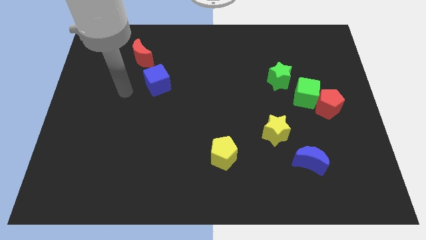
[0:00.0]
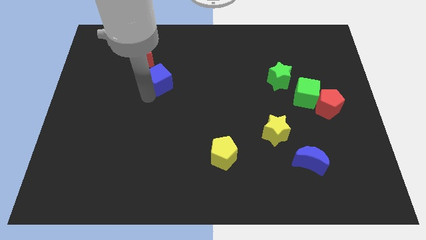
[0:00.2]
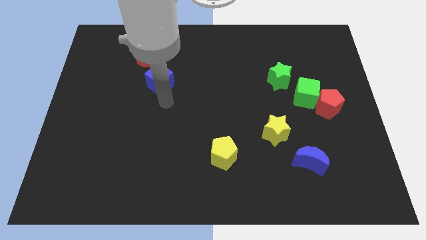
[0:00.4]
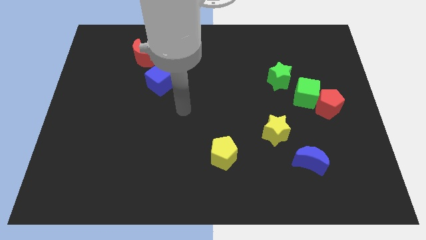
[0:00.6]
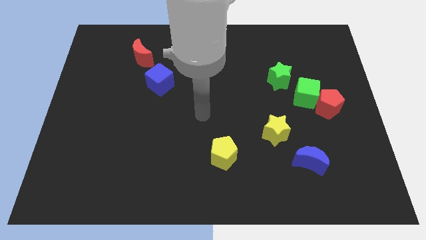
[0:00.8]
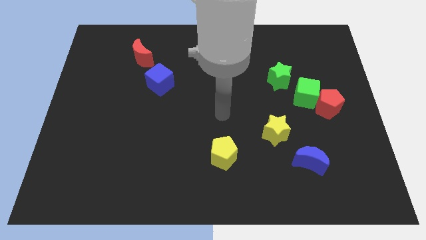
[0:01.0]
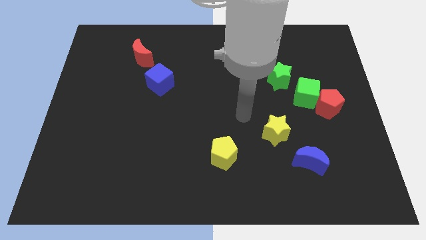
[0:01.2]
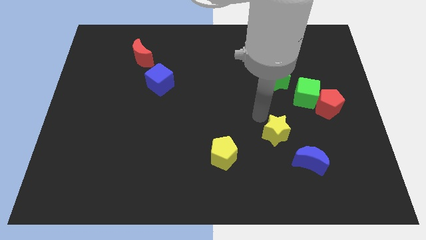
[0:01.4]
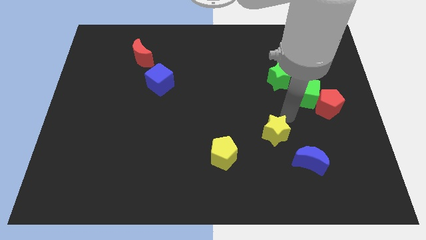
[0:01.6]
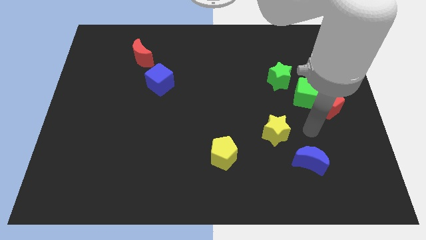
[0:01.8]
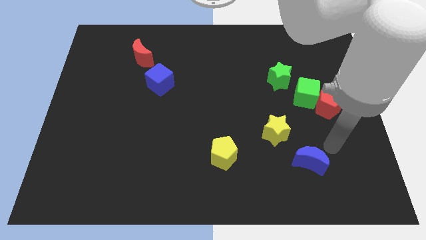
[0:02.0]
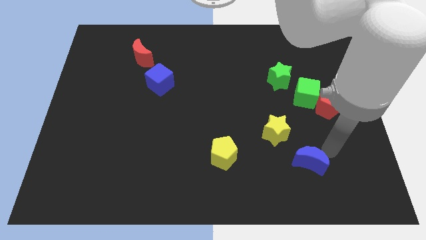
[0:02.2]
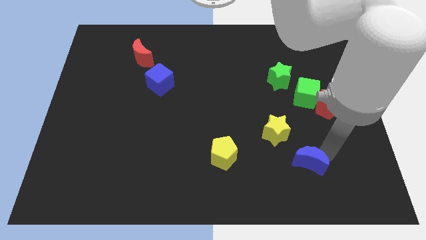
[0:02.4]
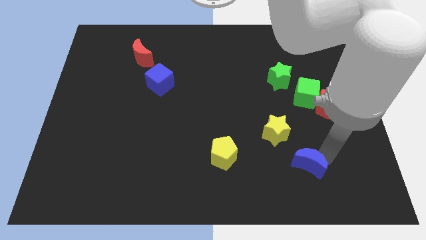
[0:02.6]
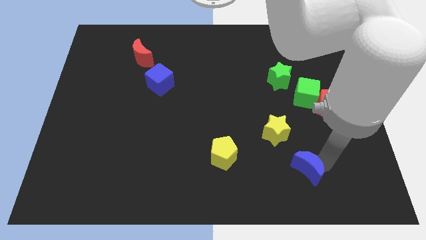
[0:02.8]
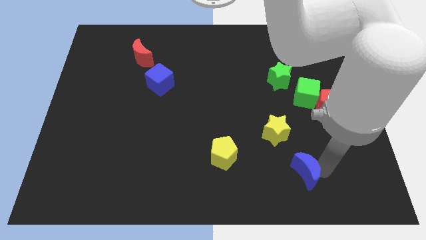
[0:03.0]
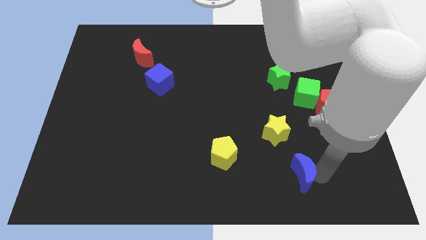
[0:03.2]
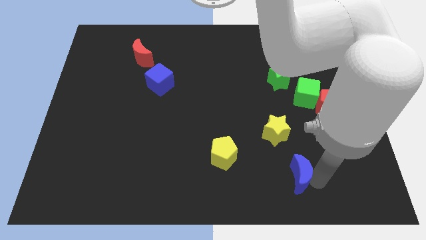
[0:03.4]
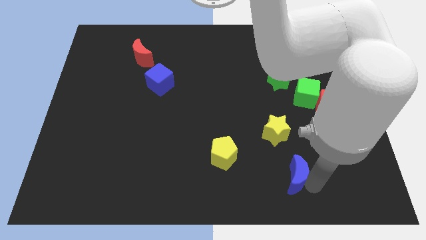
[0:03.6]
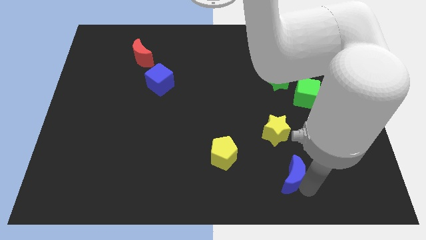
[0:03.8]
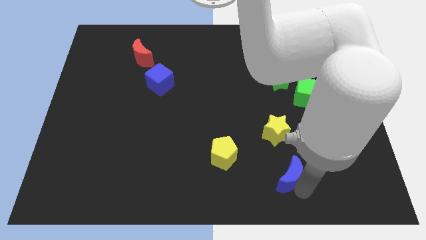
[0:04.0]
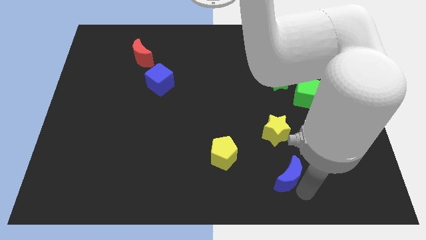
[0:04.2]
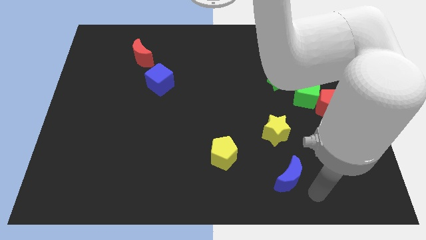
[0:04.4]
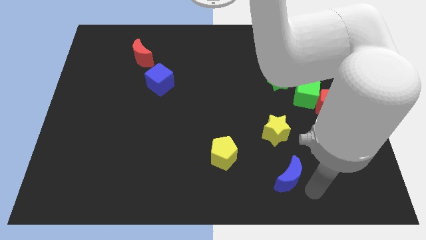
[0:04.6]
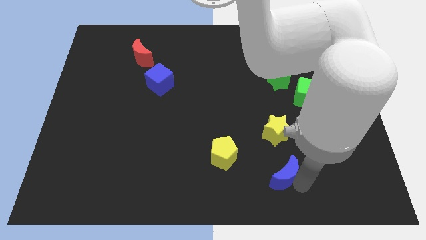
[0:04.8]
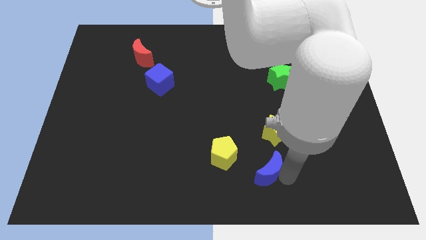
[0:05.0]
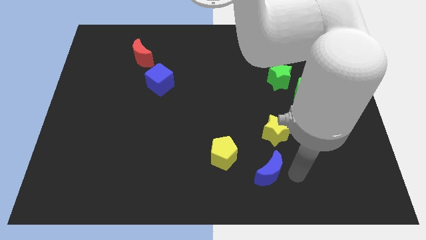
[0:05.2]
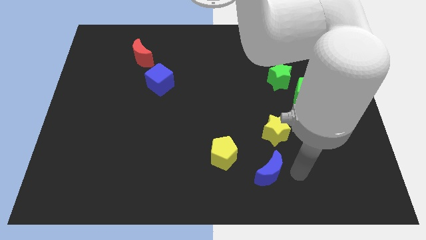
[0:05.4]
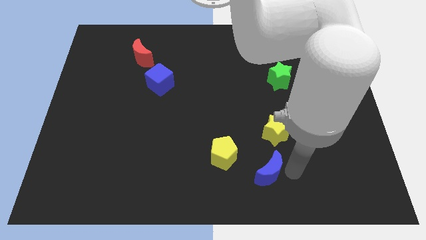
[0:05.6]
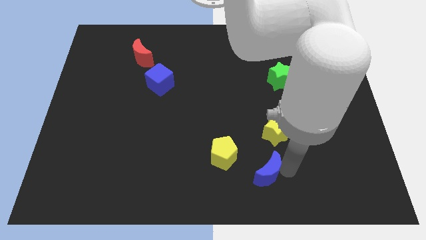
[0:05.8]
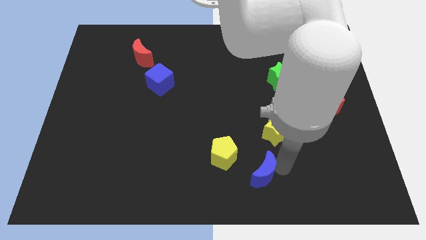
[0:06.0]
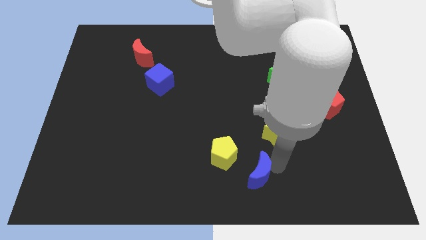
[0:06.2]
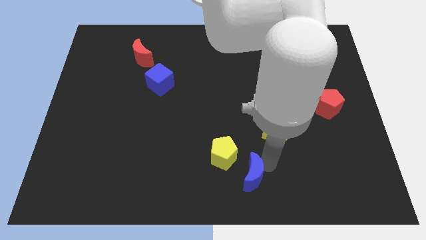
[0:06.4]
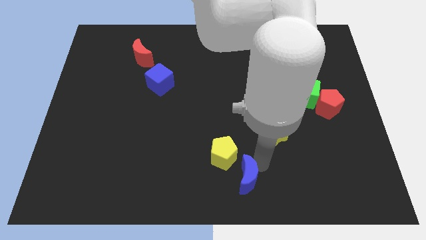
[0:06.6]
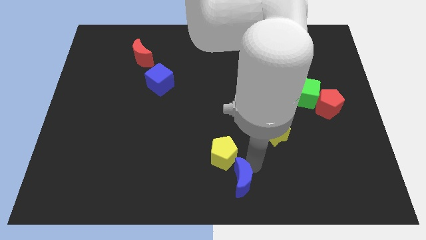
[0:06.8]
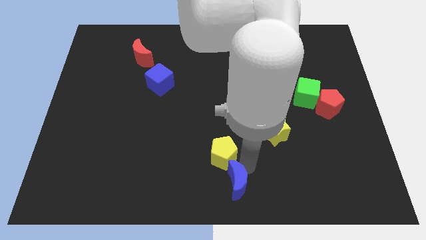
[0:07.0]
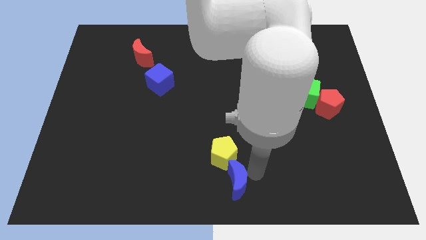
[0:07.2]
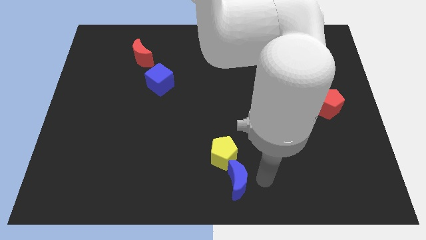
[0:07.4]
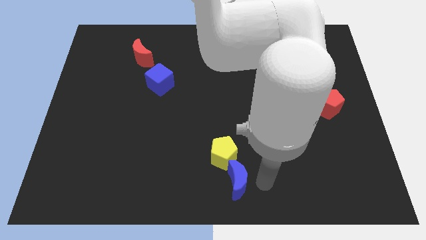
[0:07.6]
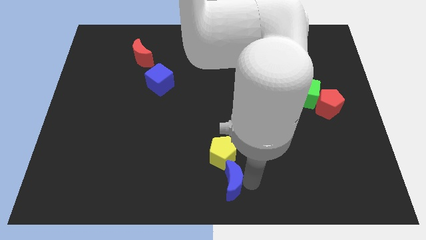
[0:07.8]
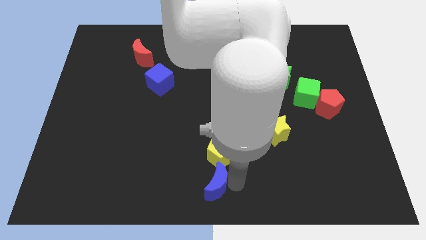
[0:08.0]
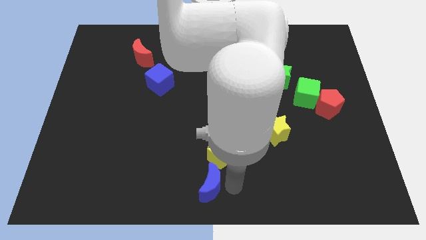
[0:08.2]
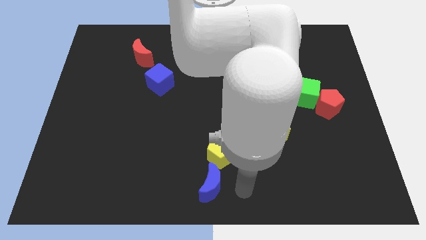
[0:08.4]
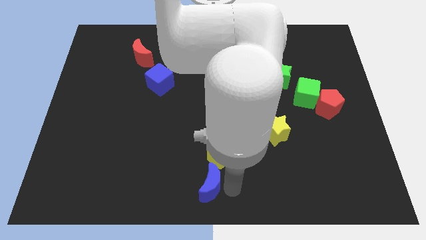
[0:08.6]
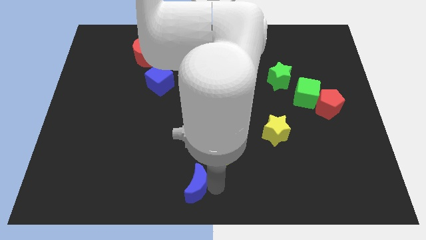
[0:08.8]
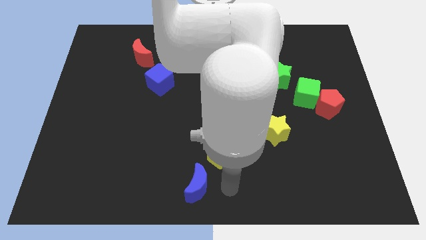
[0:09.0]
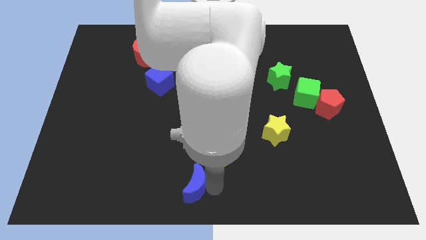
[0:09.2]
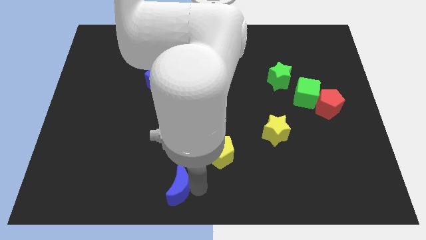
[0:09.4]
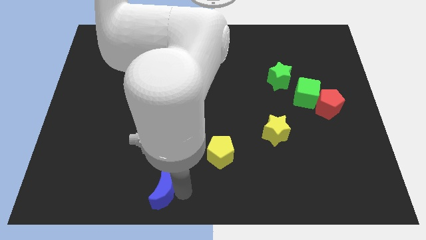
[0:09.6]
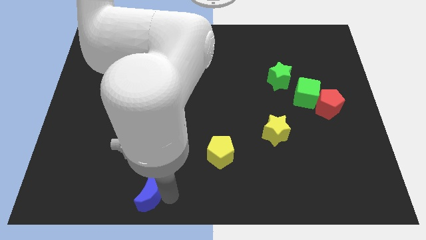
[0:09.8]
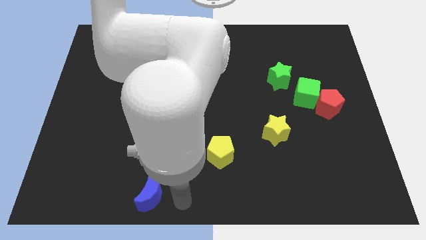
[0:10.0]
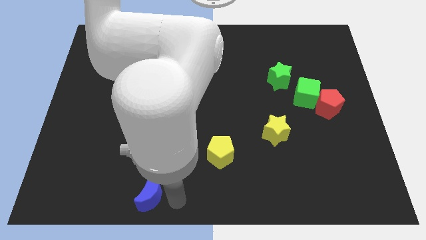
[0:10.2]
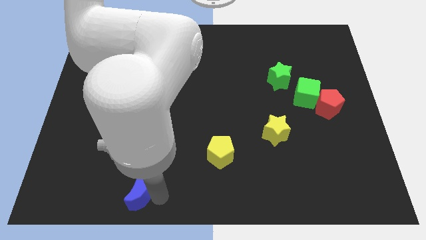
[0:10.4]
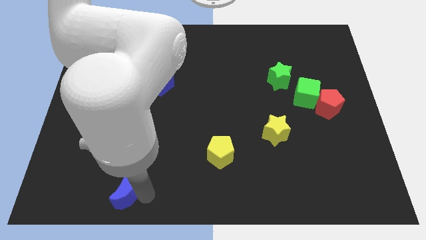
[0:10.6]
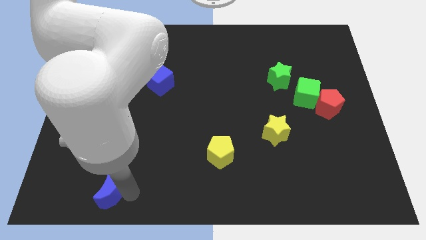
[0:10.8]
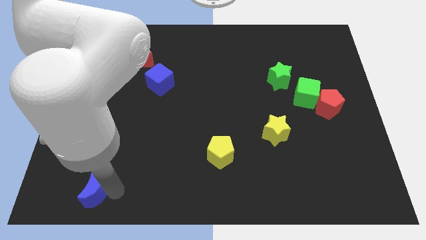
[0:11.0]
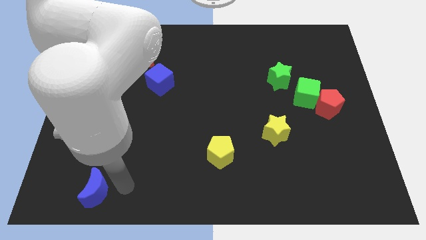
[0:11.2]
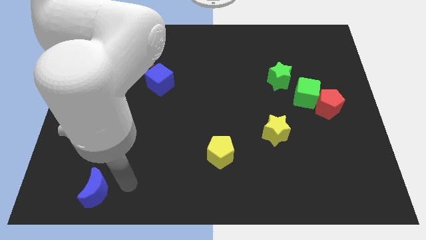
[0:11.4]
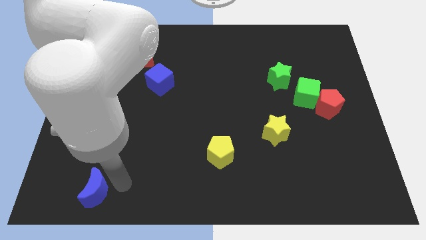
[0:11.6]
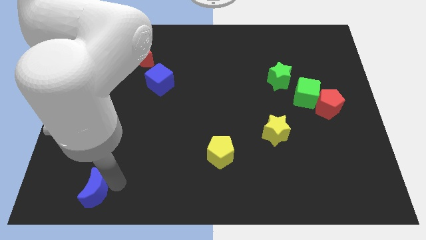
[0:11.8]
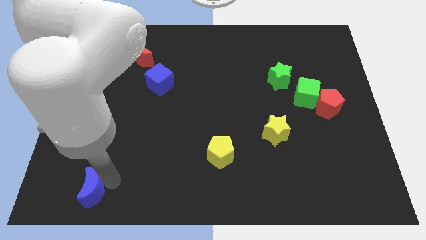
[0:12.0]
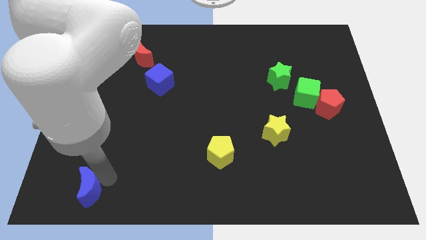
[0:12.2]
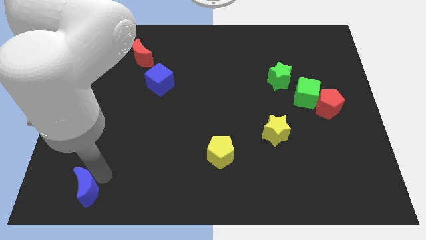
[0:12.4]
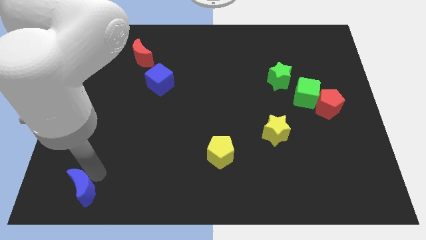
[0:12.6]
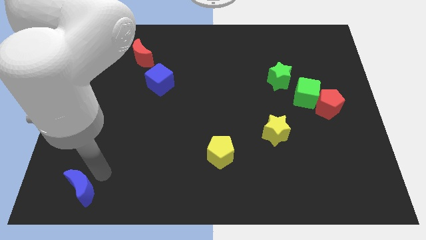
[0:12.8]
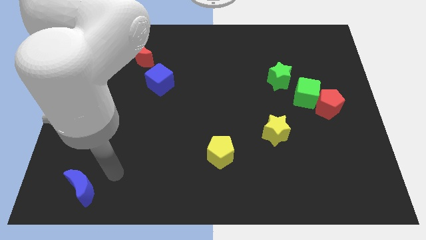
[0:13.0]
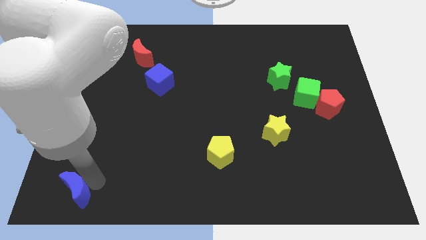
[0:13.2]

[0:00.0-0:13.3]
push the blue moon to the bottom left
